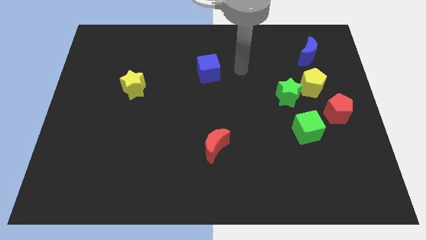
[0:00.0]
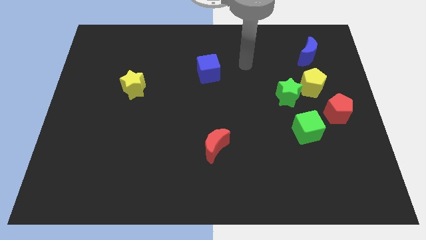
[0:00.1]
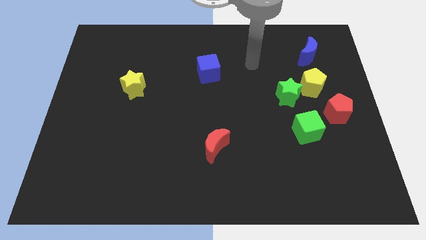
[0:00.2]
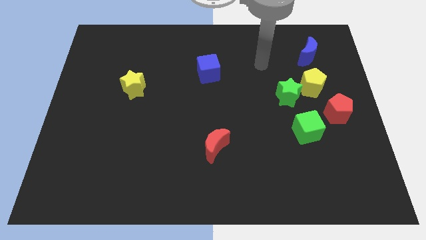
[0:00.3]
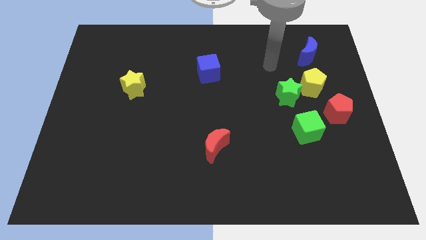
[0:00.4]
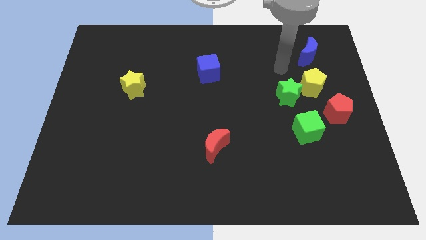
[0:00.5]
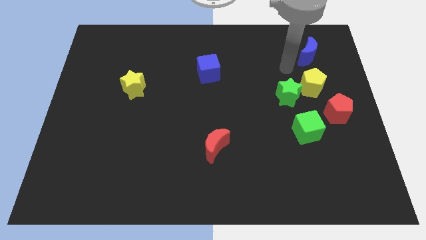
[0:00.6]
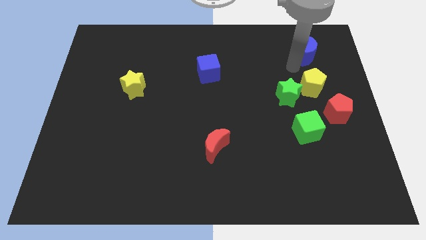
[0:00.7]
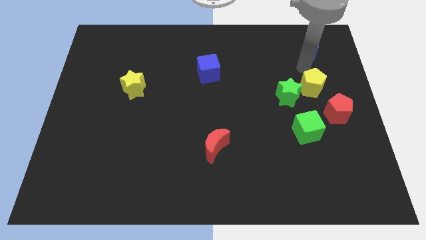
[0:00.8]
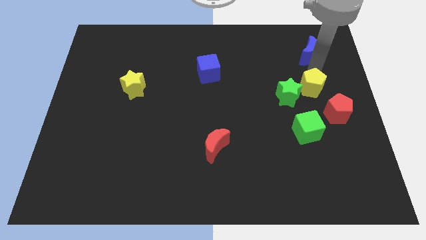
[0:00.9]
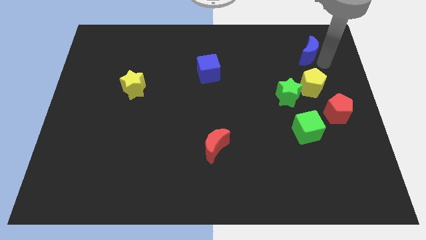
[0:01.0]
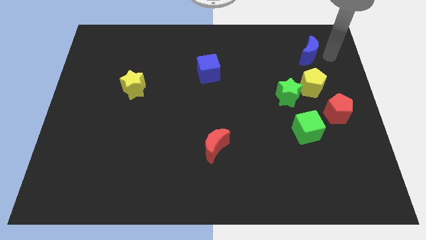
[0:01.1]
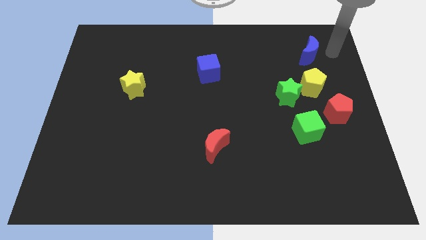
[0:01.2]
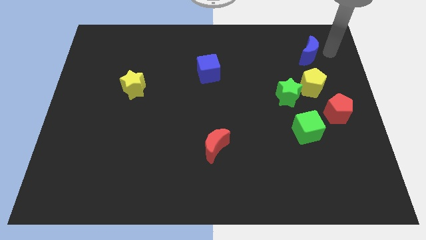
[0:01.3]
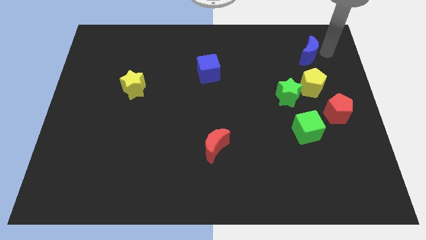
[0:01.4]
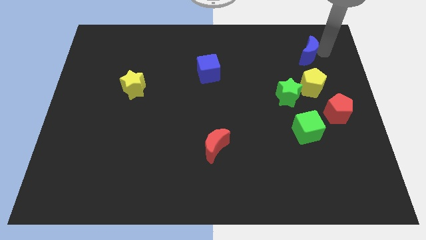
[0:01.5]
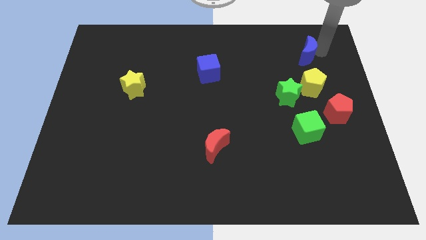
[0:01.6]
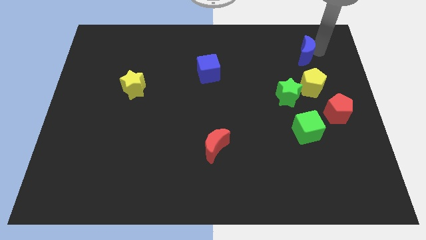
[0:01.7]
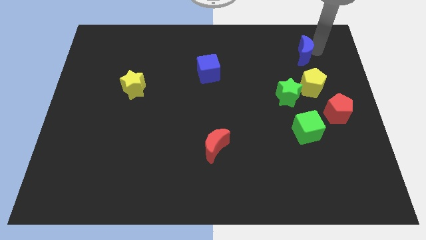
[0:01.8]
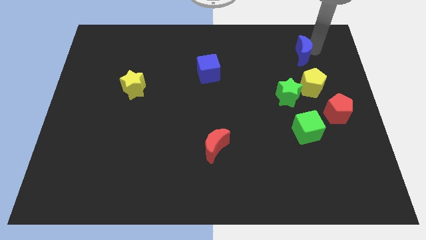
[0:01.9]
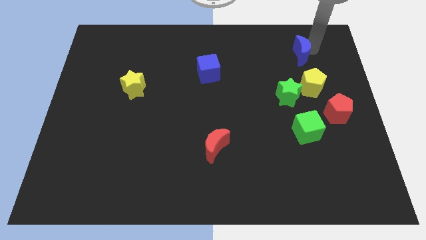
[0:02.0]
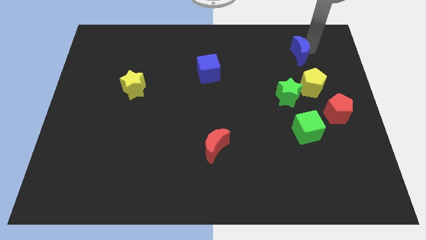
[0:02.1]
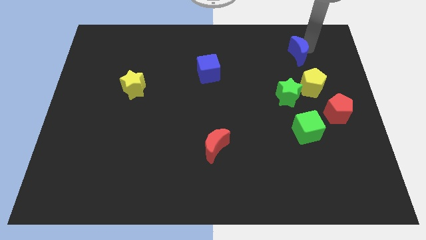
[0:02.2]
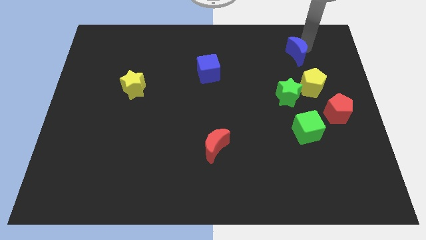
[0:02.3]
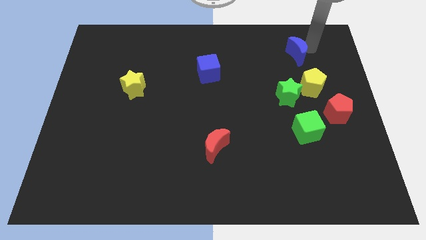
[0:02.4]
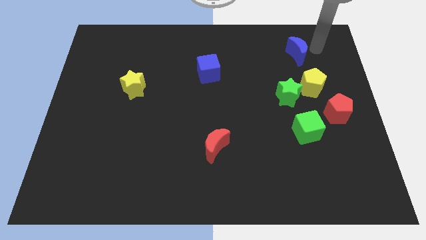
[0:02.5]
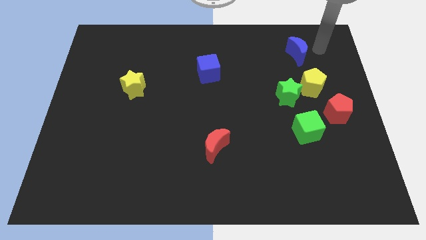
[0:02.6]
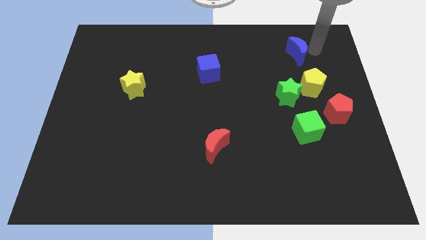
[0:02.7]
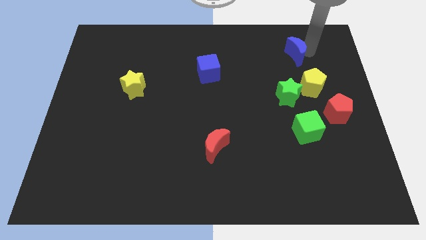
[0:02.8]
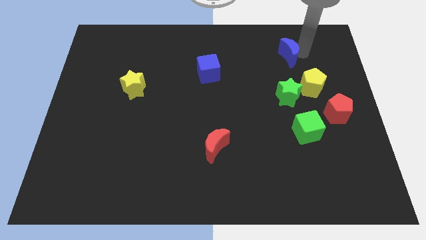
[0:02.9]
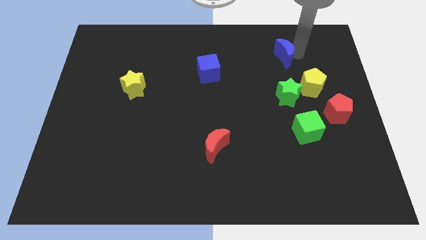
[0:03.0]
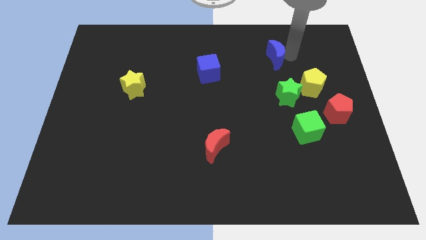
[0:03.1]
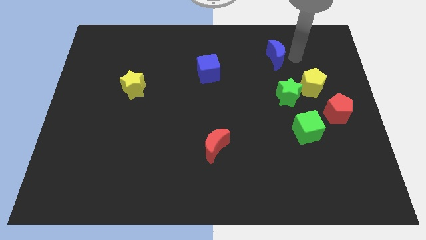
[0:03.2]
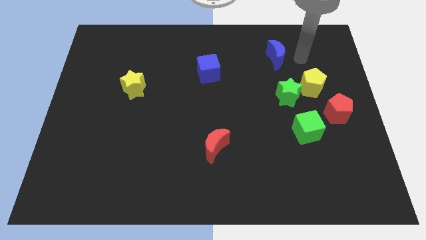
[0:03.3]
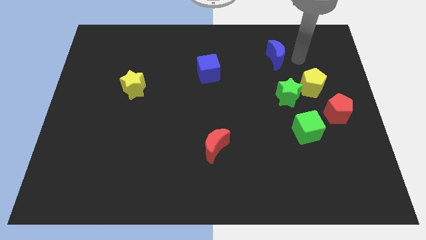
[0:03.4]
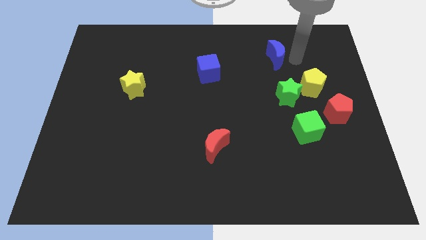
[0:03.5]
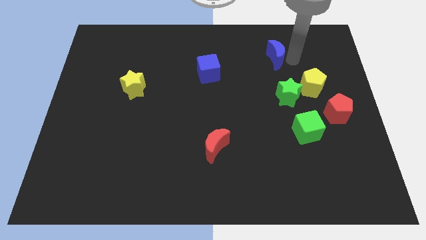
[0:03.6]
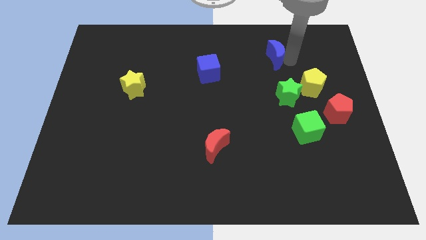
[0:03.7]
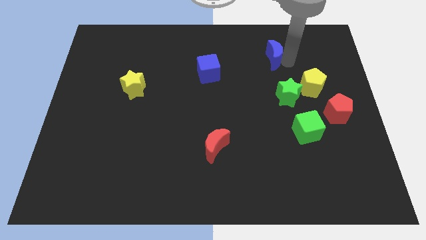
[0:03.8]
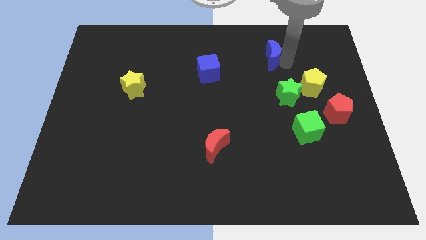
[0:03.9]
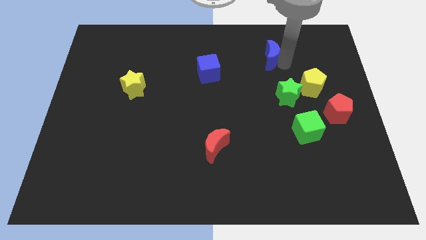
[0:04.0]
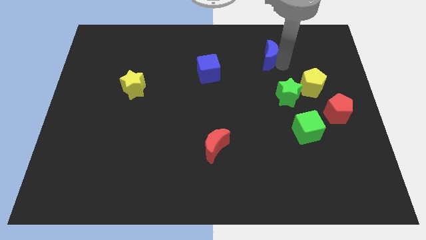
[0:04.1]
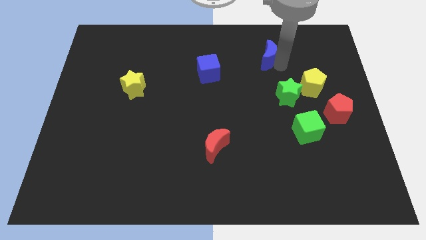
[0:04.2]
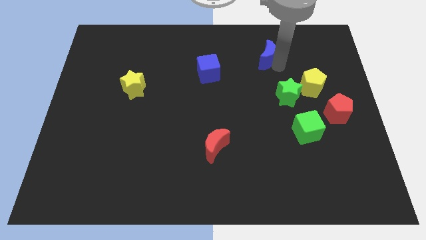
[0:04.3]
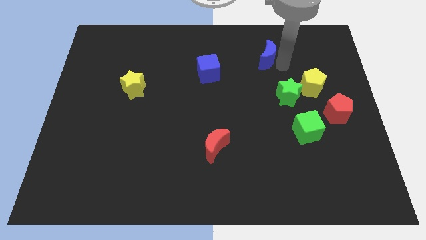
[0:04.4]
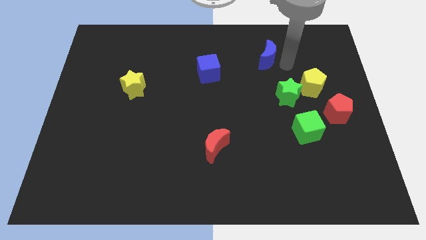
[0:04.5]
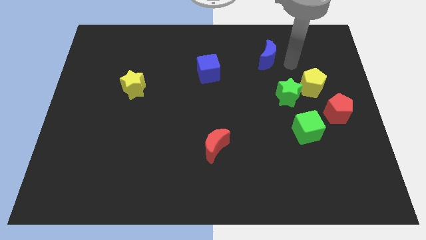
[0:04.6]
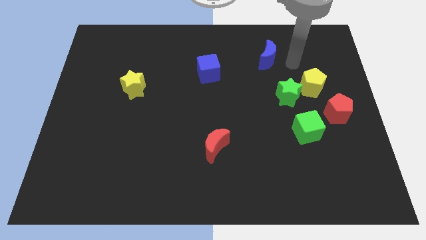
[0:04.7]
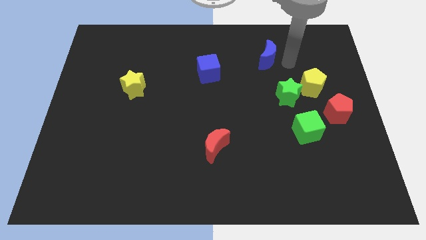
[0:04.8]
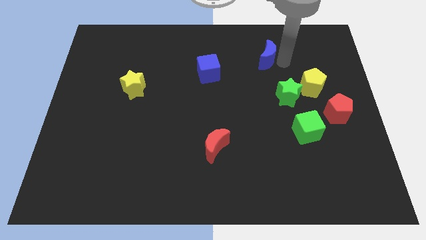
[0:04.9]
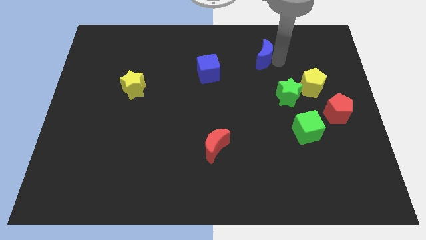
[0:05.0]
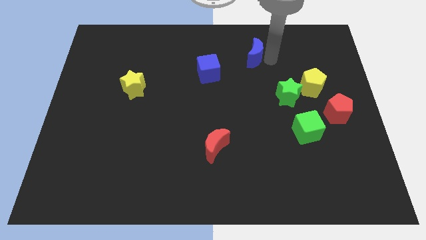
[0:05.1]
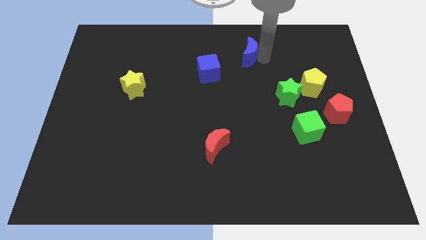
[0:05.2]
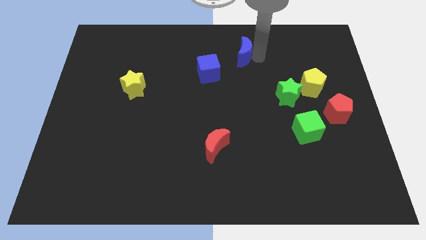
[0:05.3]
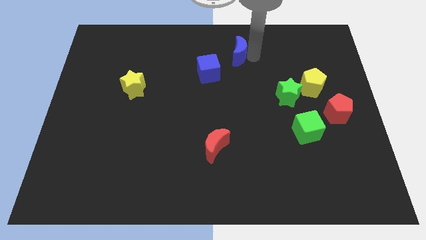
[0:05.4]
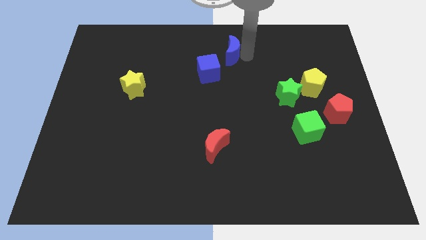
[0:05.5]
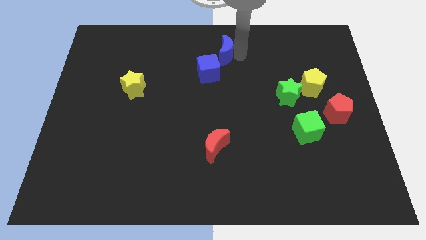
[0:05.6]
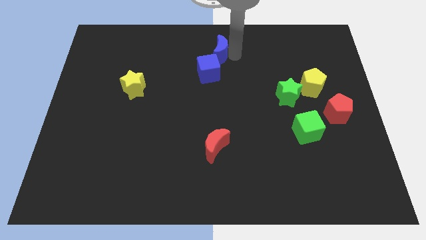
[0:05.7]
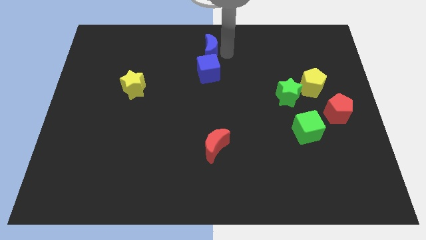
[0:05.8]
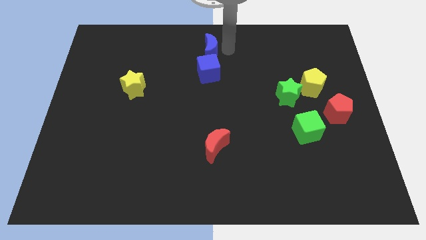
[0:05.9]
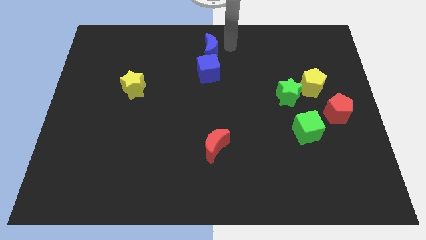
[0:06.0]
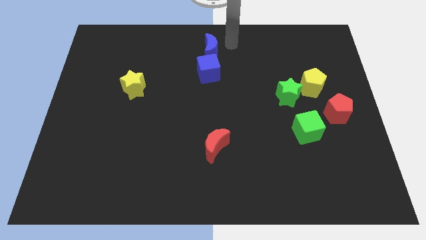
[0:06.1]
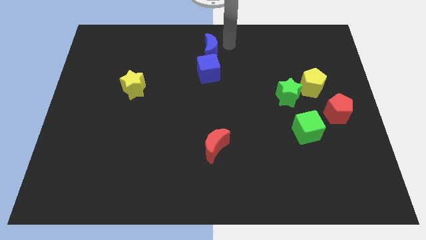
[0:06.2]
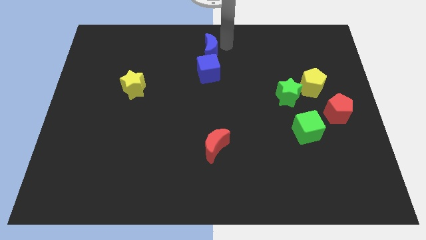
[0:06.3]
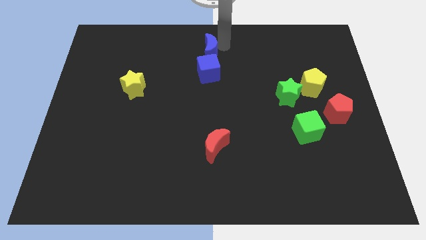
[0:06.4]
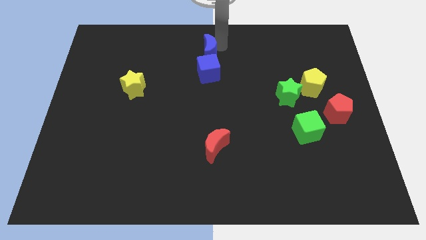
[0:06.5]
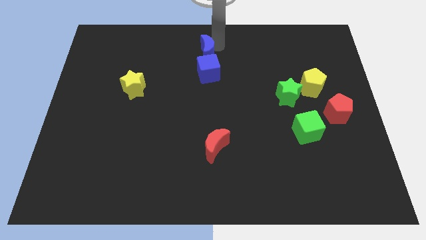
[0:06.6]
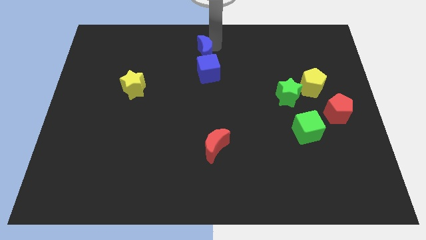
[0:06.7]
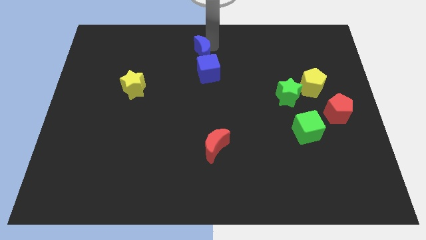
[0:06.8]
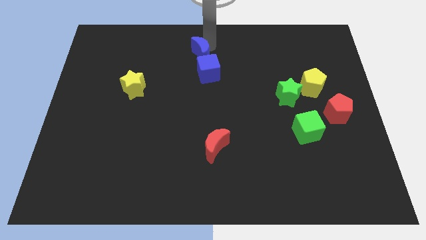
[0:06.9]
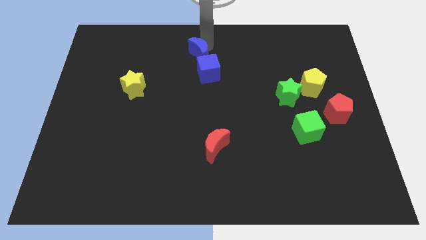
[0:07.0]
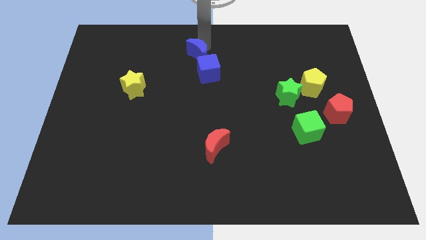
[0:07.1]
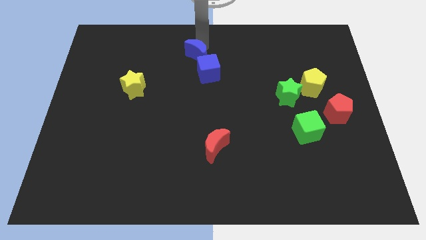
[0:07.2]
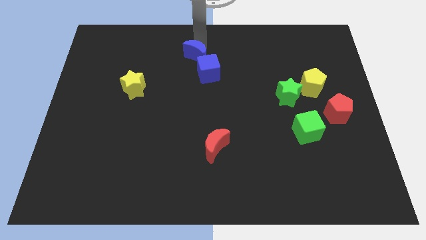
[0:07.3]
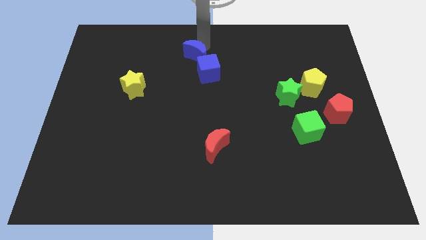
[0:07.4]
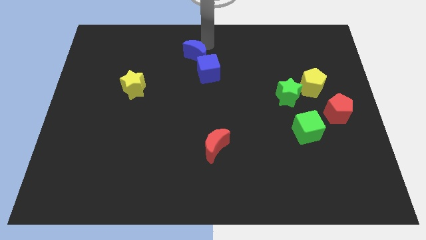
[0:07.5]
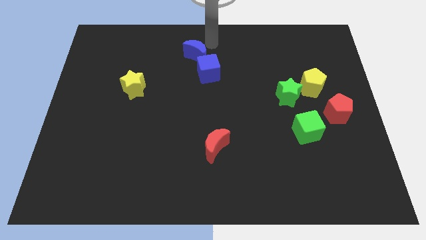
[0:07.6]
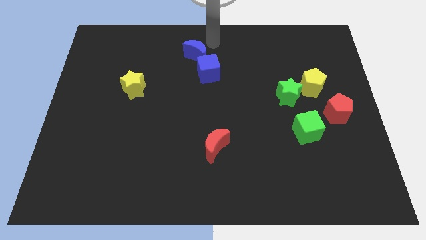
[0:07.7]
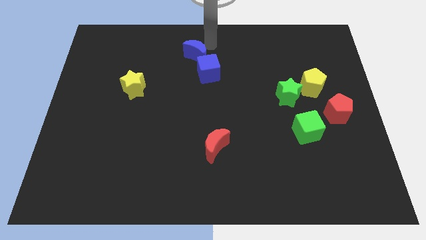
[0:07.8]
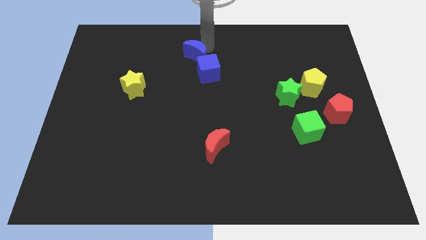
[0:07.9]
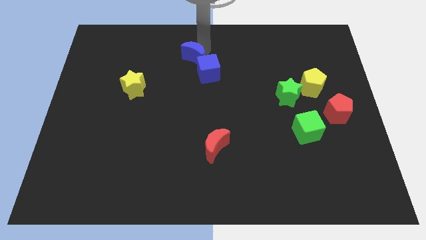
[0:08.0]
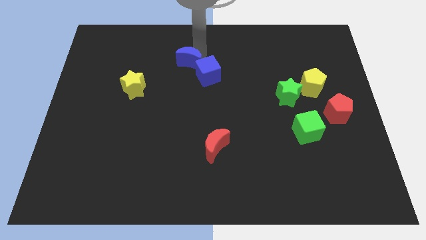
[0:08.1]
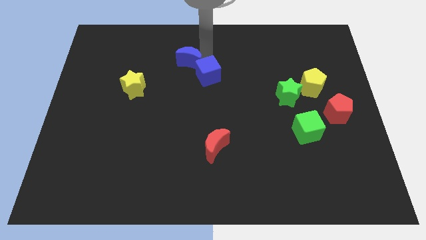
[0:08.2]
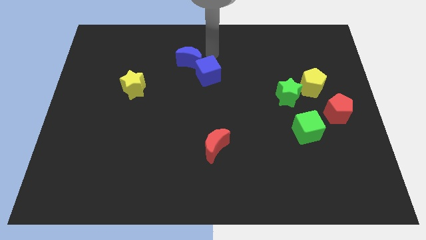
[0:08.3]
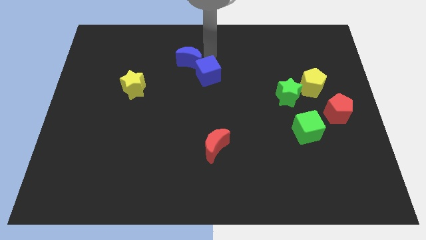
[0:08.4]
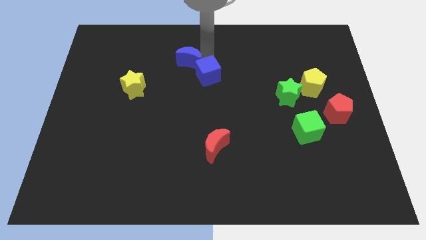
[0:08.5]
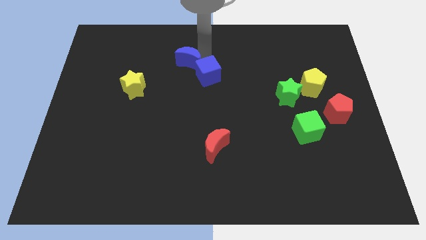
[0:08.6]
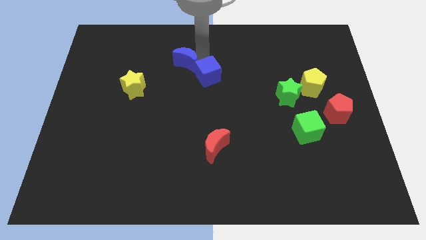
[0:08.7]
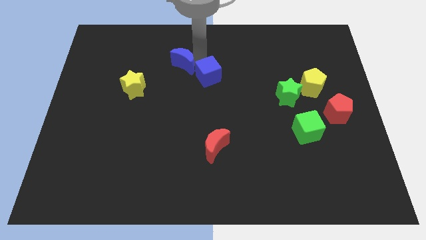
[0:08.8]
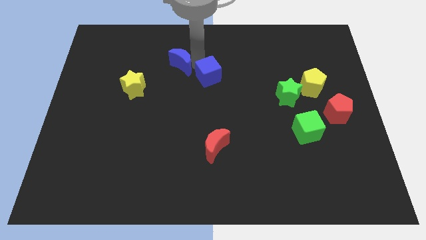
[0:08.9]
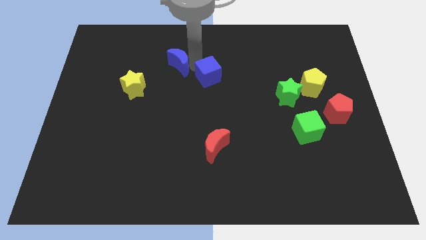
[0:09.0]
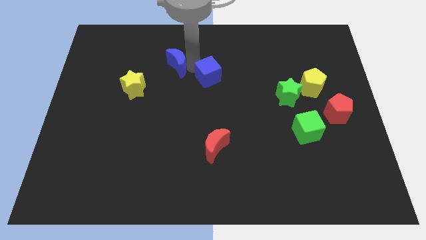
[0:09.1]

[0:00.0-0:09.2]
put the blue moon to the top right of the yellow star
